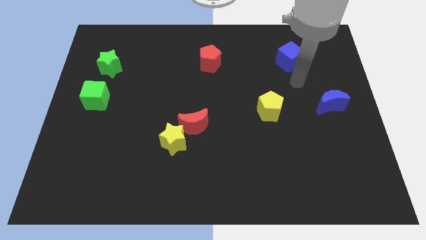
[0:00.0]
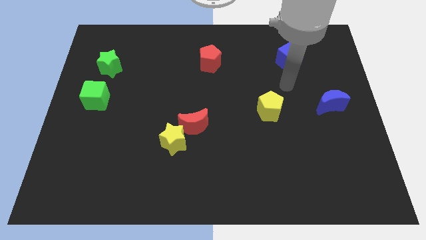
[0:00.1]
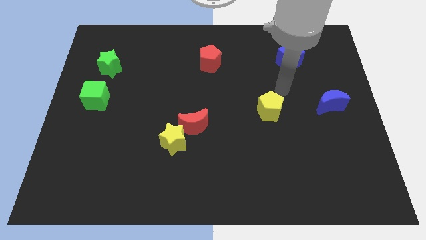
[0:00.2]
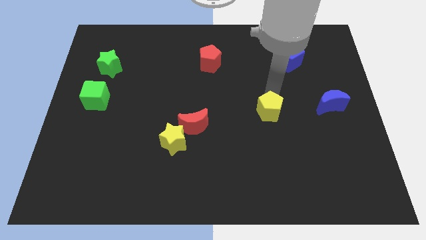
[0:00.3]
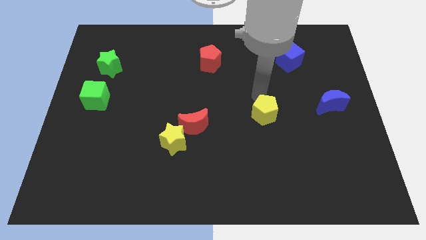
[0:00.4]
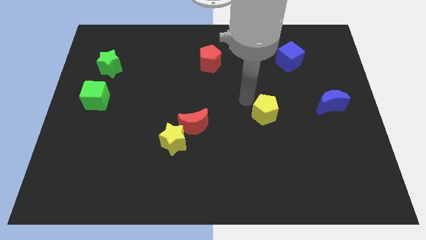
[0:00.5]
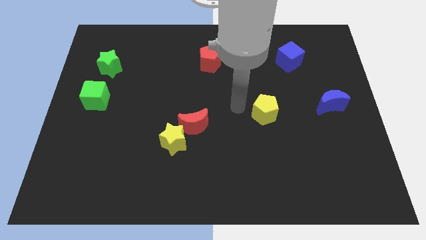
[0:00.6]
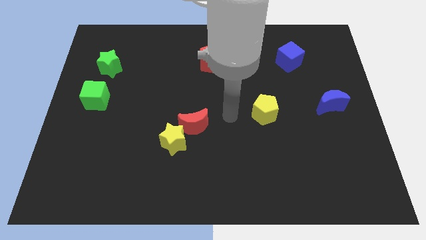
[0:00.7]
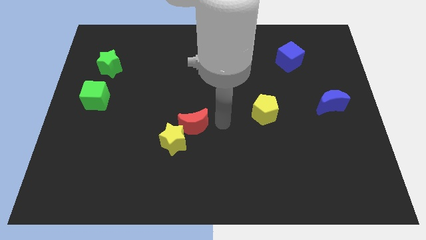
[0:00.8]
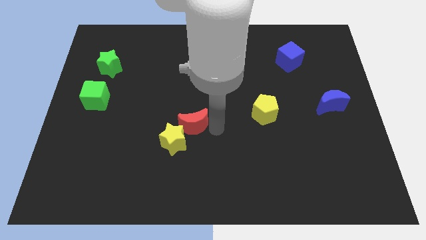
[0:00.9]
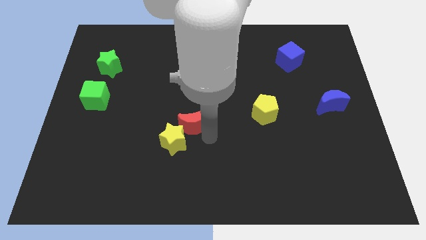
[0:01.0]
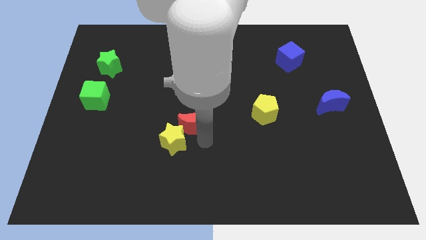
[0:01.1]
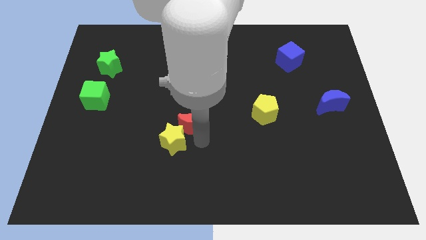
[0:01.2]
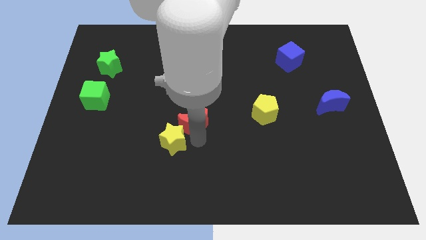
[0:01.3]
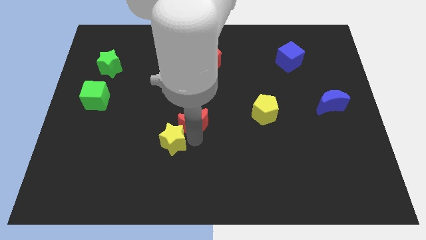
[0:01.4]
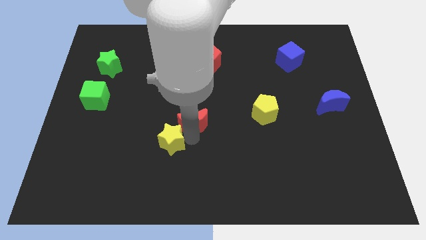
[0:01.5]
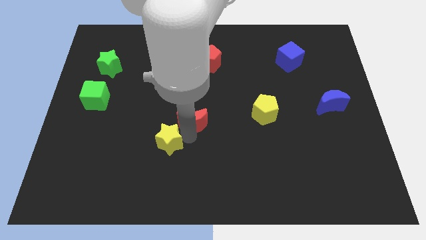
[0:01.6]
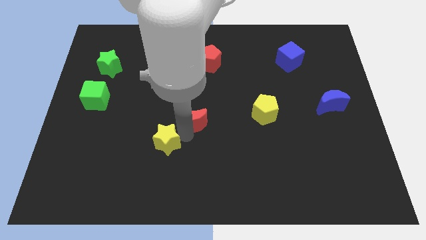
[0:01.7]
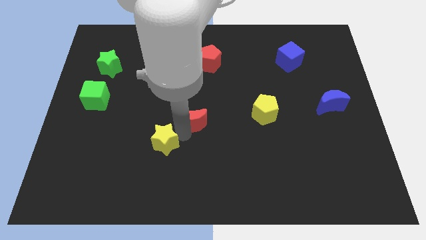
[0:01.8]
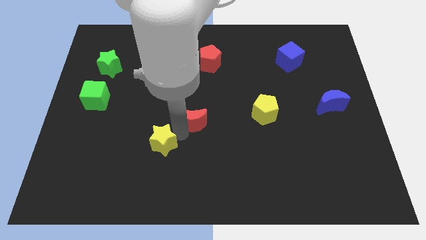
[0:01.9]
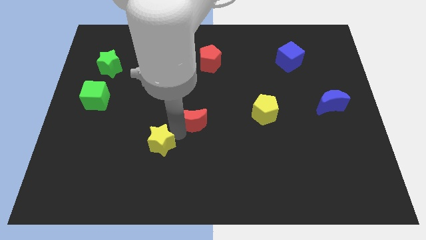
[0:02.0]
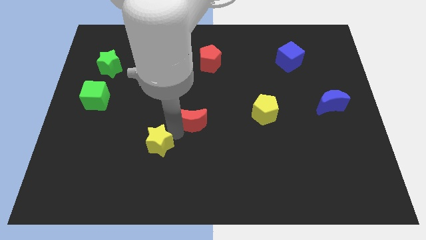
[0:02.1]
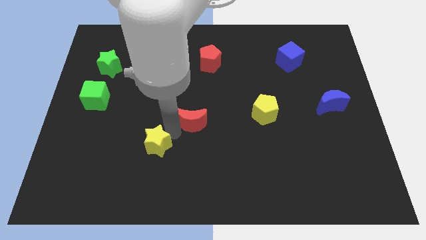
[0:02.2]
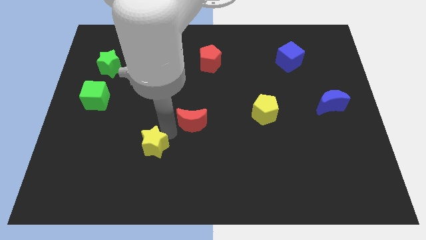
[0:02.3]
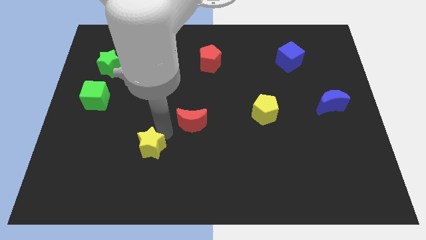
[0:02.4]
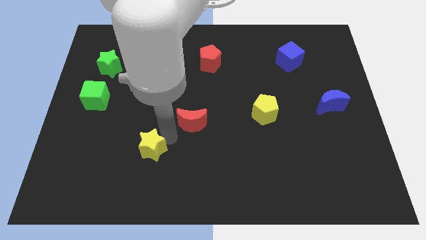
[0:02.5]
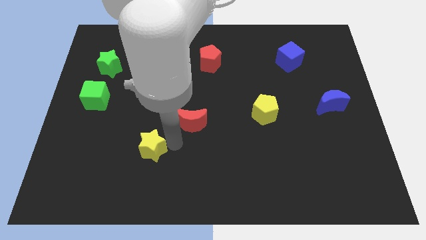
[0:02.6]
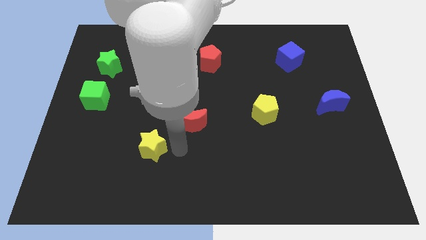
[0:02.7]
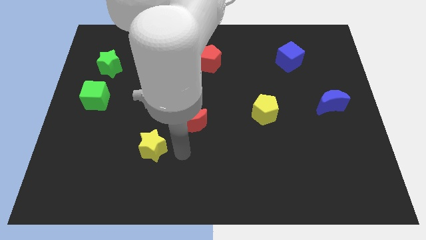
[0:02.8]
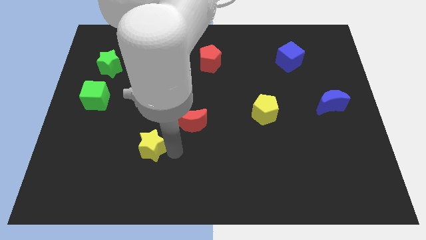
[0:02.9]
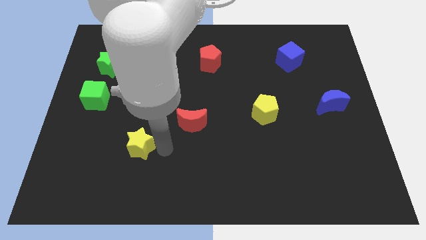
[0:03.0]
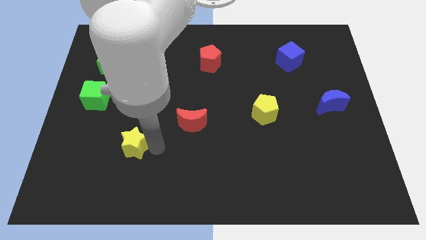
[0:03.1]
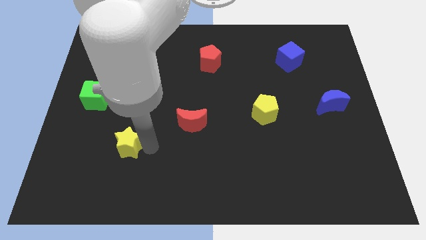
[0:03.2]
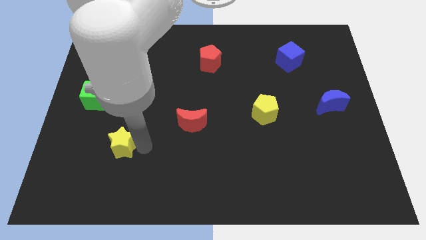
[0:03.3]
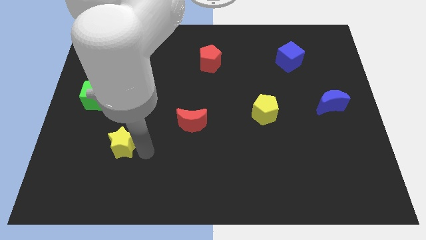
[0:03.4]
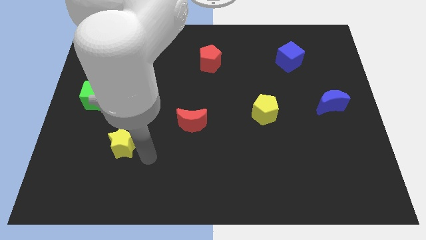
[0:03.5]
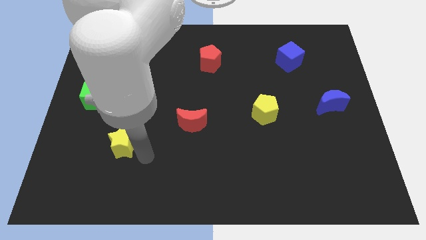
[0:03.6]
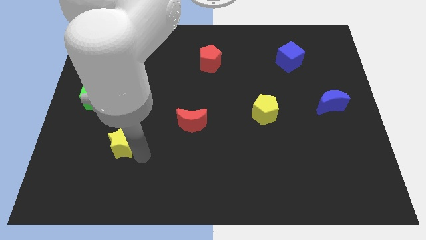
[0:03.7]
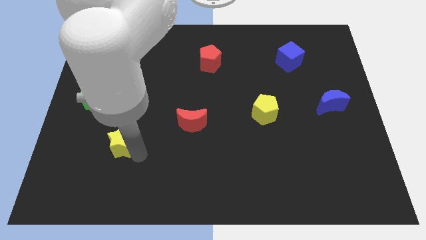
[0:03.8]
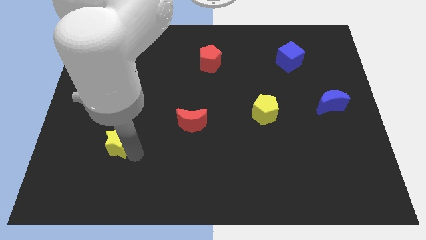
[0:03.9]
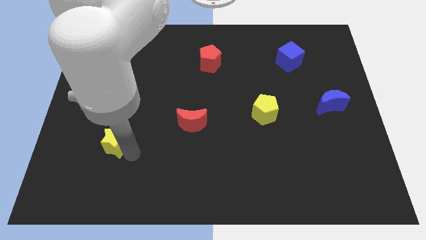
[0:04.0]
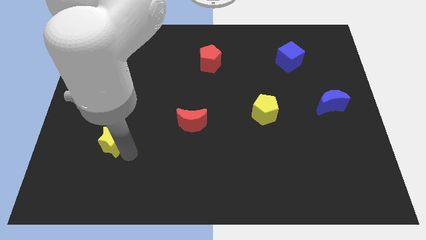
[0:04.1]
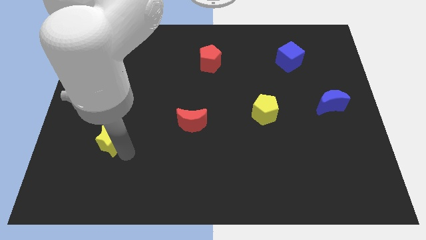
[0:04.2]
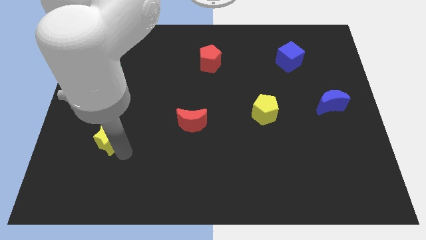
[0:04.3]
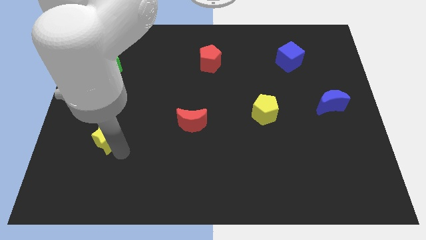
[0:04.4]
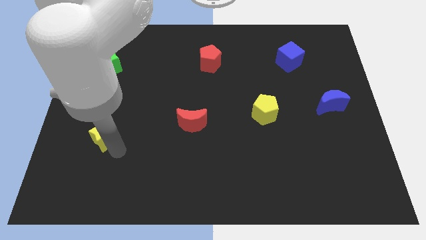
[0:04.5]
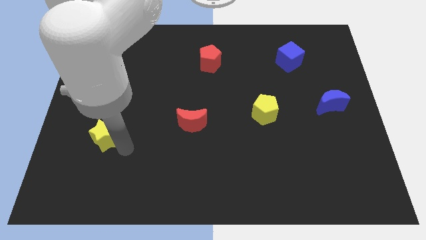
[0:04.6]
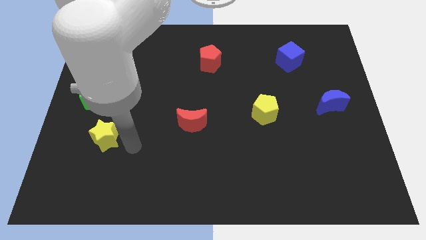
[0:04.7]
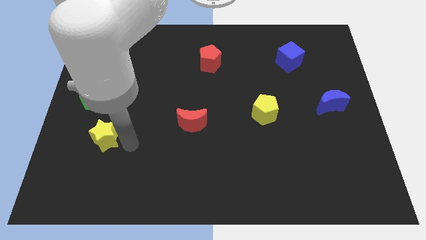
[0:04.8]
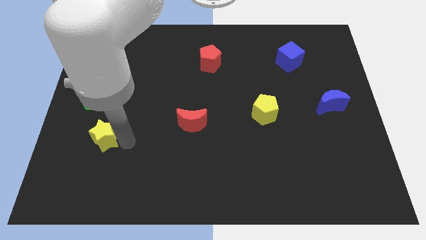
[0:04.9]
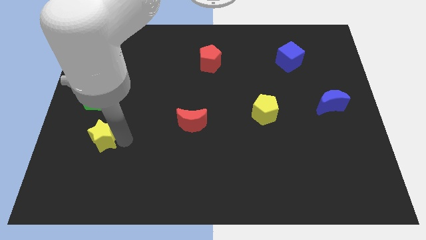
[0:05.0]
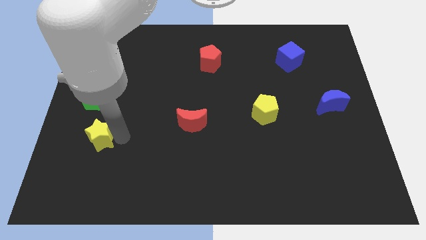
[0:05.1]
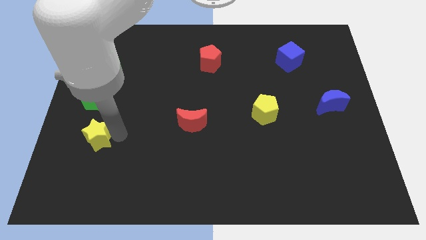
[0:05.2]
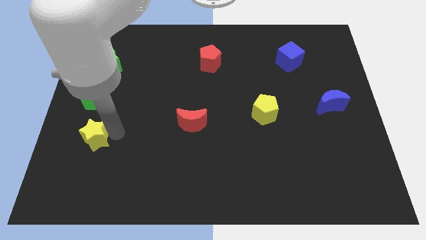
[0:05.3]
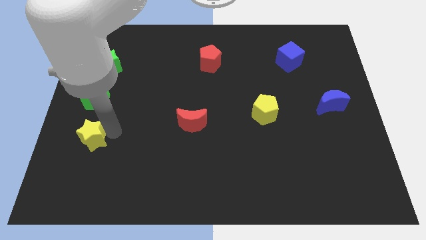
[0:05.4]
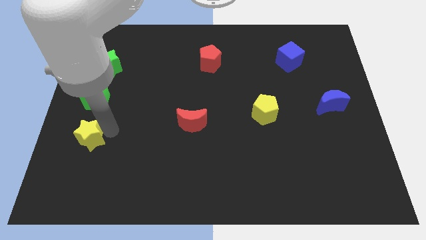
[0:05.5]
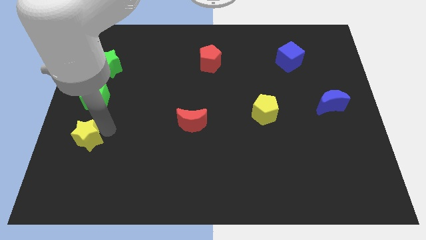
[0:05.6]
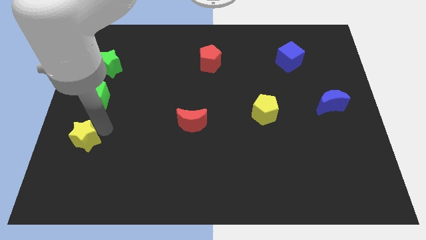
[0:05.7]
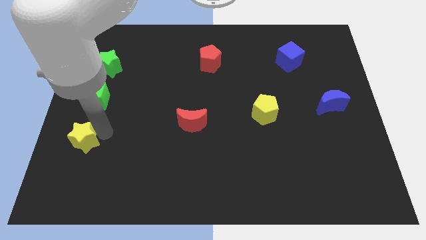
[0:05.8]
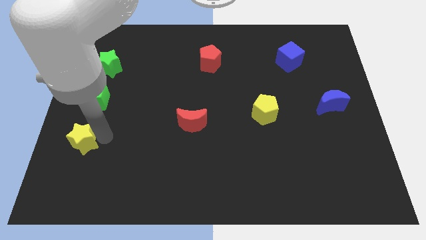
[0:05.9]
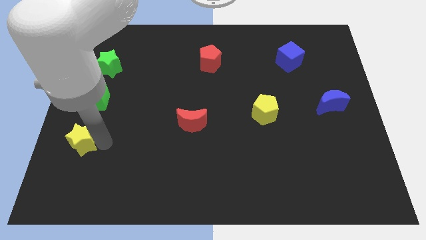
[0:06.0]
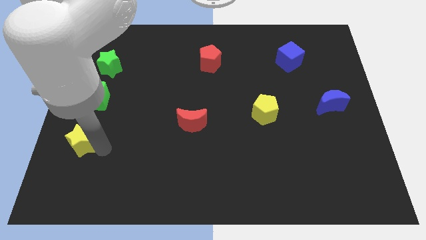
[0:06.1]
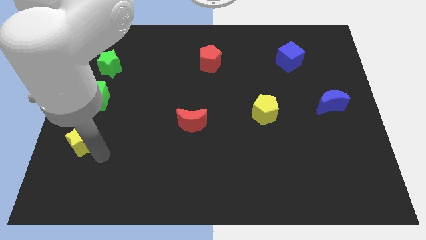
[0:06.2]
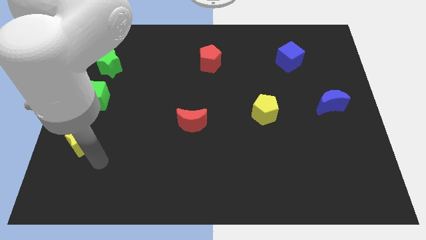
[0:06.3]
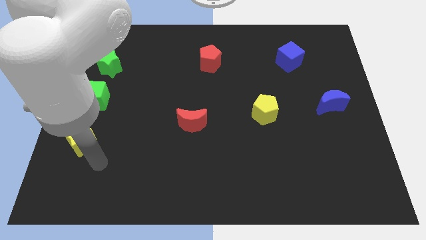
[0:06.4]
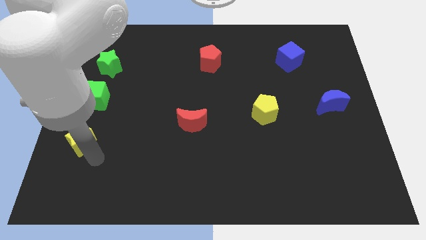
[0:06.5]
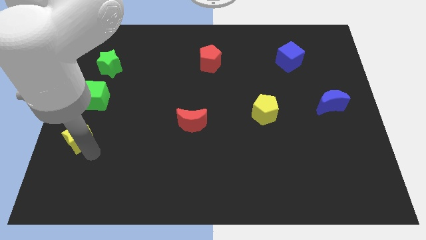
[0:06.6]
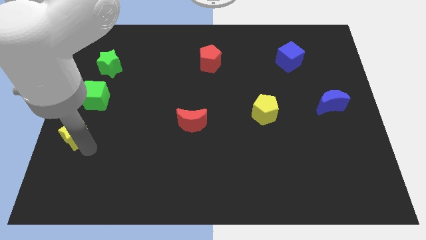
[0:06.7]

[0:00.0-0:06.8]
move the yellow star to the left side of the board
